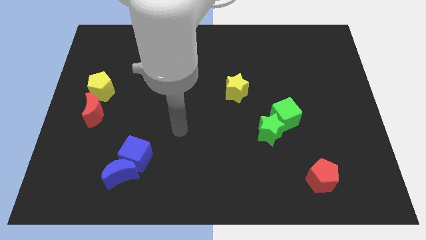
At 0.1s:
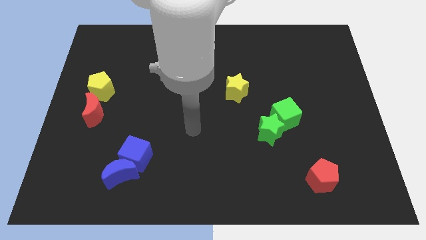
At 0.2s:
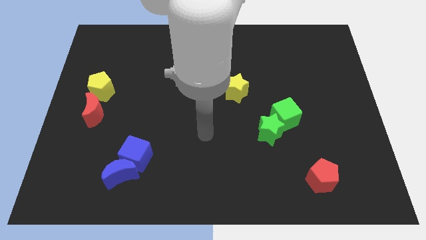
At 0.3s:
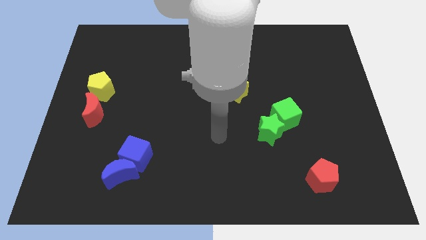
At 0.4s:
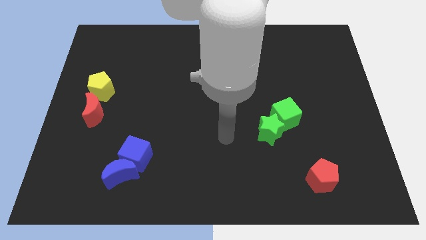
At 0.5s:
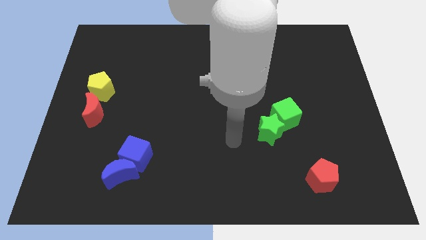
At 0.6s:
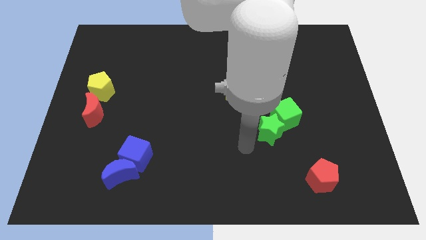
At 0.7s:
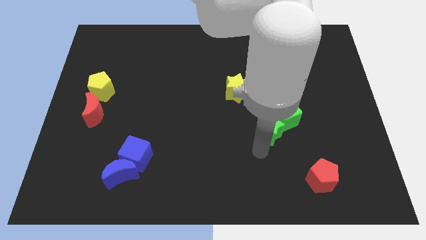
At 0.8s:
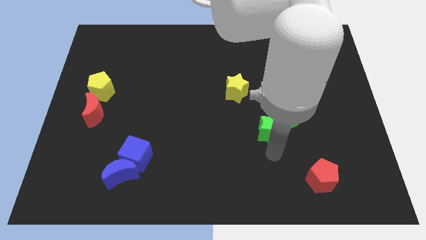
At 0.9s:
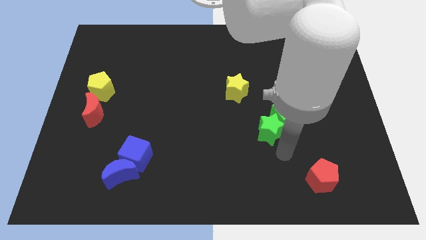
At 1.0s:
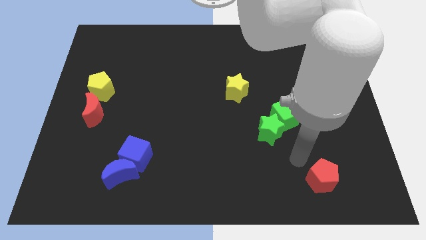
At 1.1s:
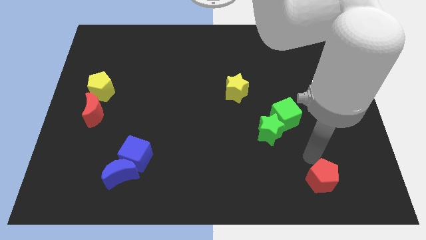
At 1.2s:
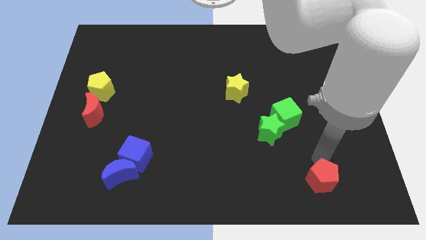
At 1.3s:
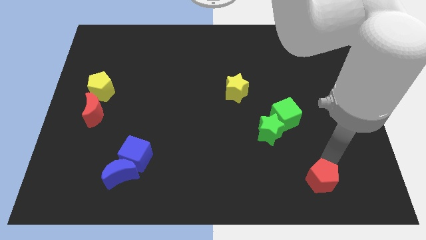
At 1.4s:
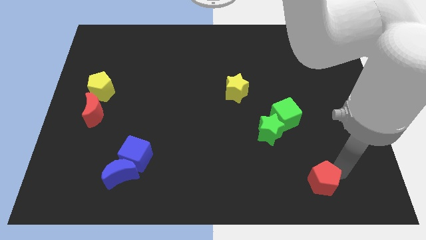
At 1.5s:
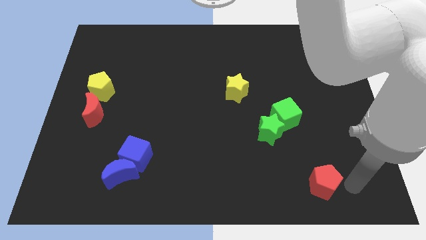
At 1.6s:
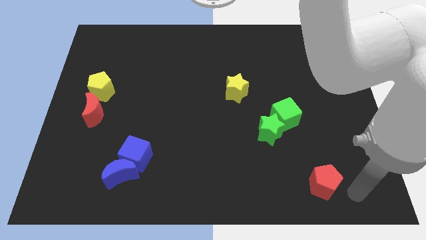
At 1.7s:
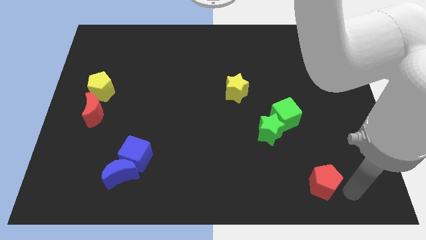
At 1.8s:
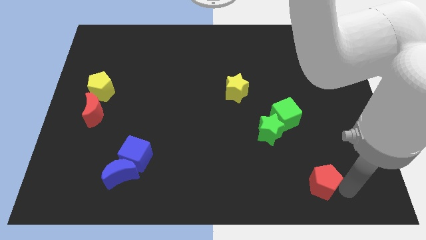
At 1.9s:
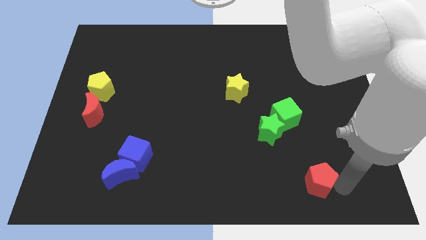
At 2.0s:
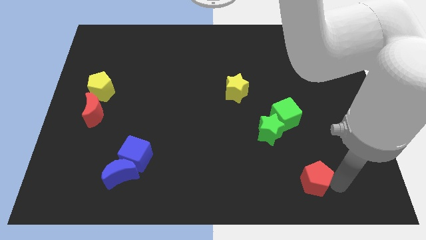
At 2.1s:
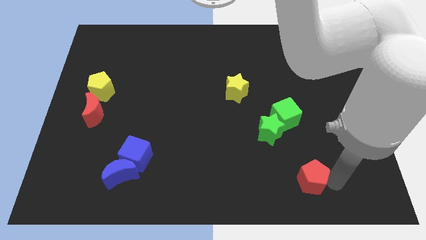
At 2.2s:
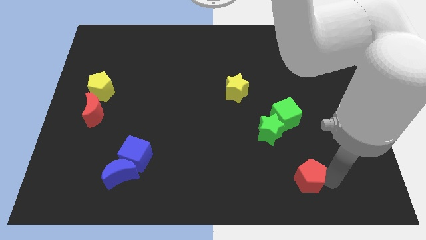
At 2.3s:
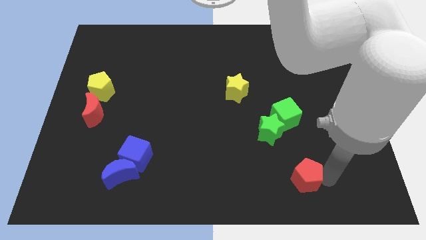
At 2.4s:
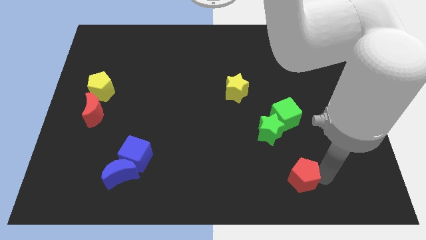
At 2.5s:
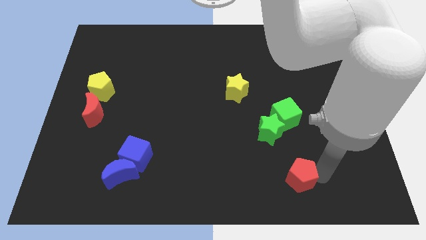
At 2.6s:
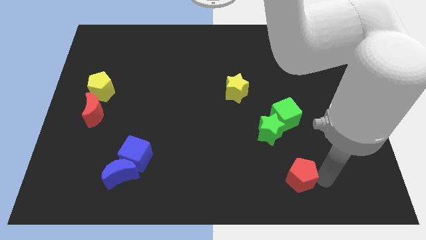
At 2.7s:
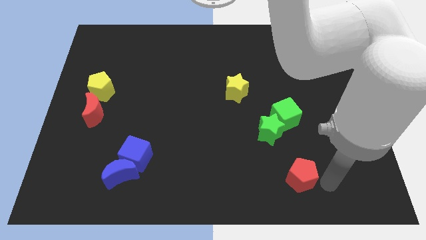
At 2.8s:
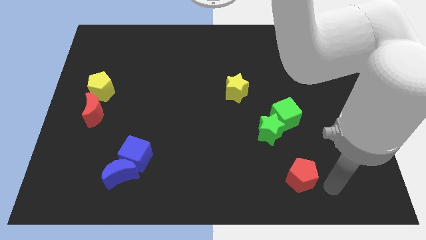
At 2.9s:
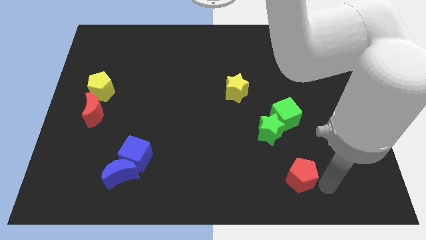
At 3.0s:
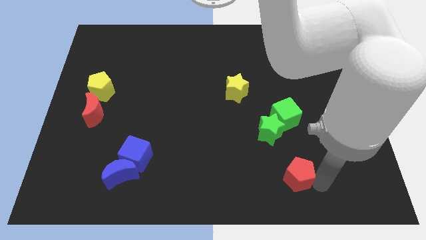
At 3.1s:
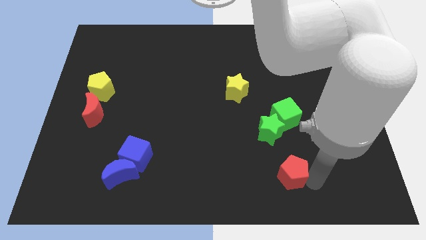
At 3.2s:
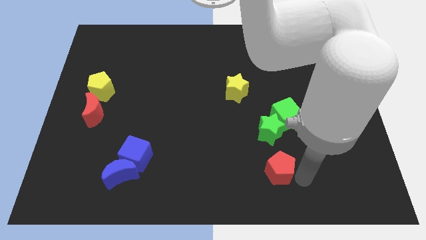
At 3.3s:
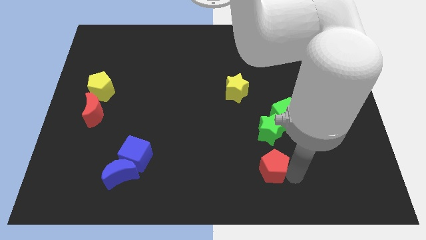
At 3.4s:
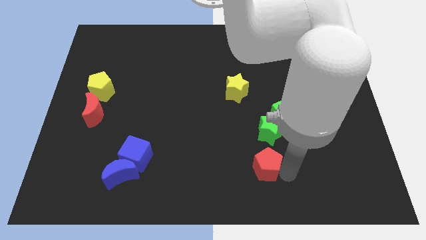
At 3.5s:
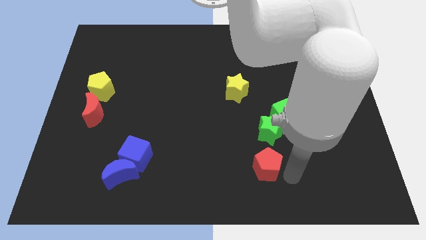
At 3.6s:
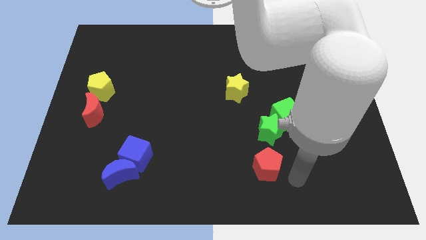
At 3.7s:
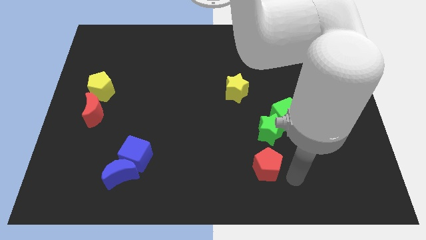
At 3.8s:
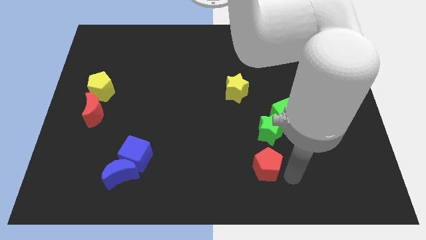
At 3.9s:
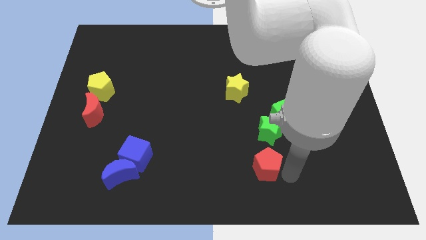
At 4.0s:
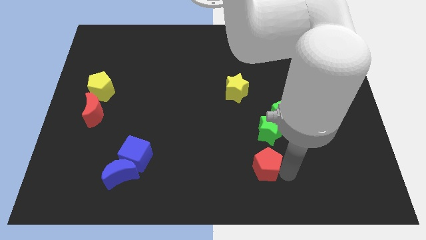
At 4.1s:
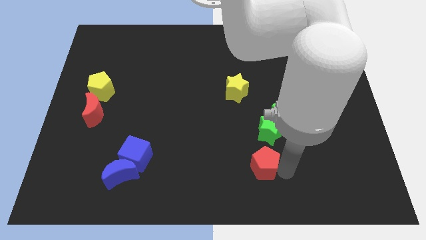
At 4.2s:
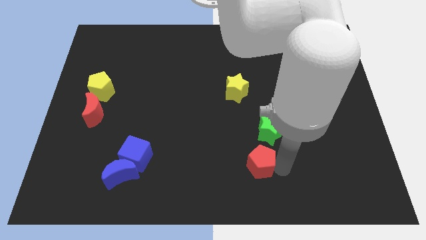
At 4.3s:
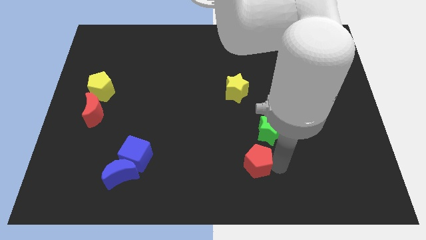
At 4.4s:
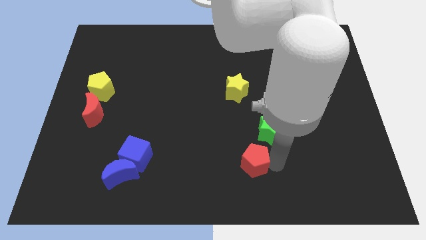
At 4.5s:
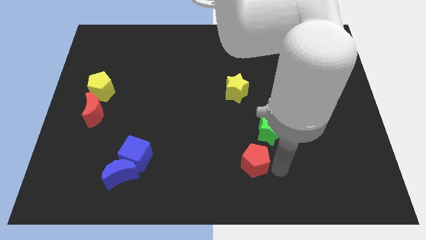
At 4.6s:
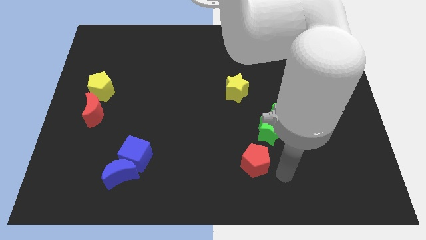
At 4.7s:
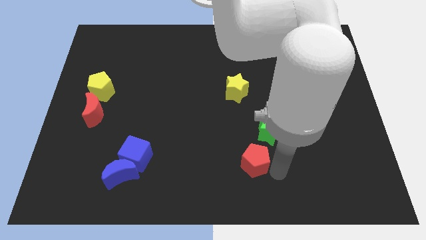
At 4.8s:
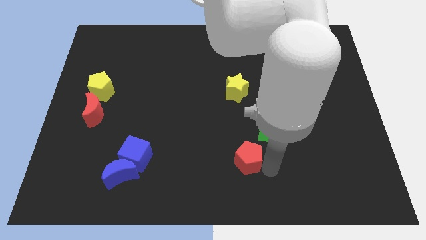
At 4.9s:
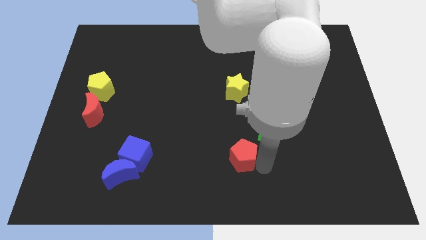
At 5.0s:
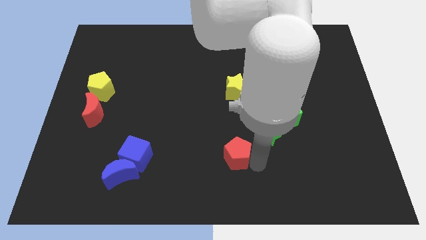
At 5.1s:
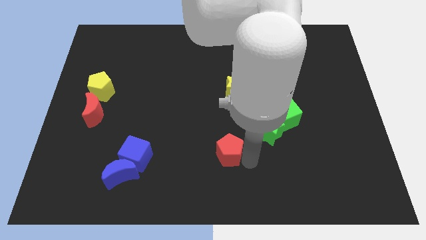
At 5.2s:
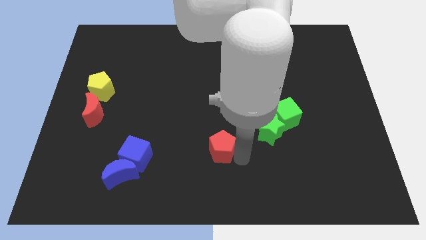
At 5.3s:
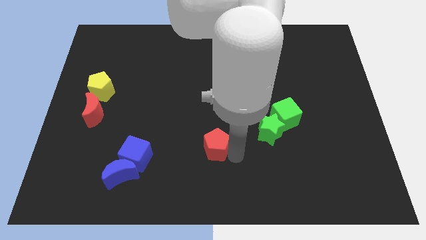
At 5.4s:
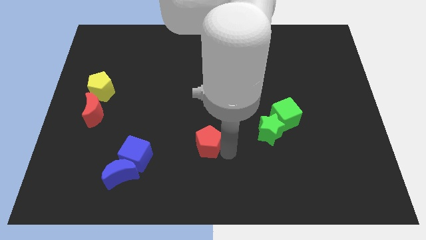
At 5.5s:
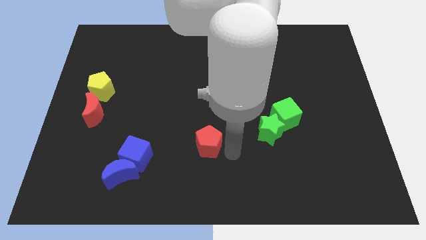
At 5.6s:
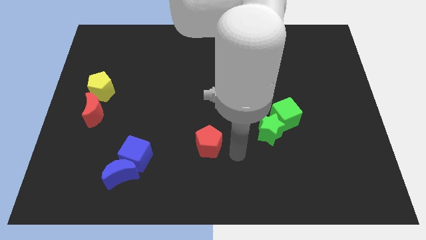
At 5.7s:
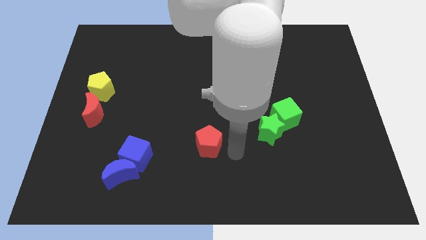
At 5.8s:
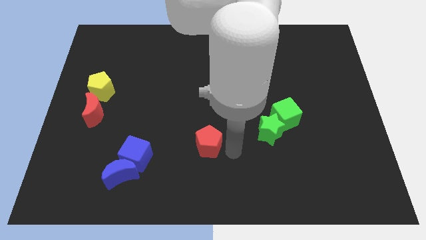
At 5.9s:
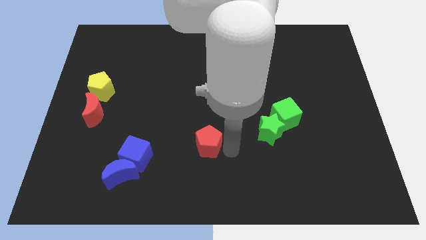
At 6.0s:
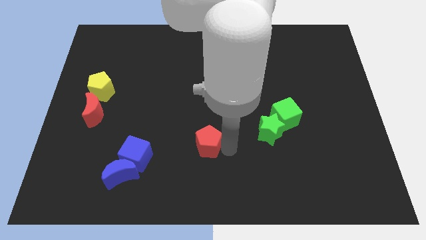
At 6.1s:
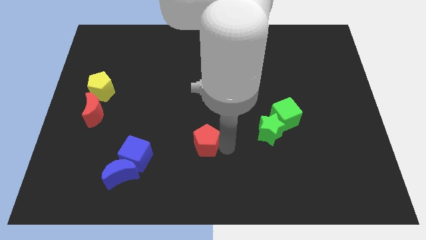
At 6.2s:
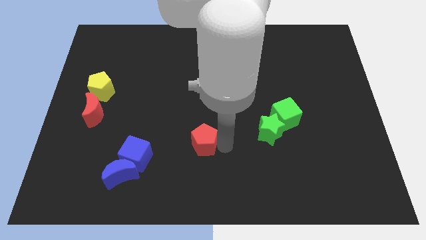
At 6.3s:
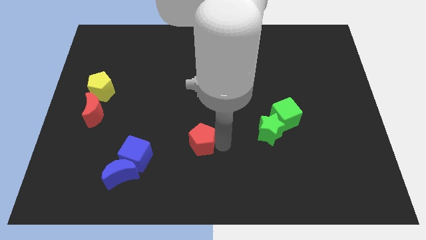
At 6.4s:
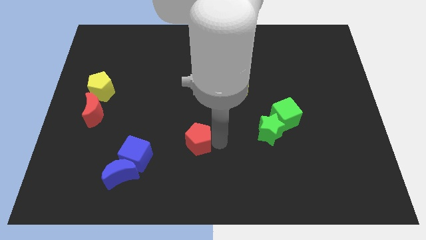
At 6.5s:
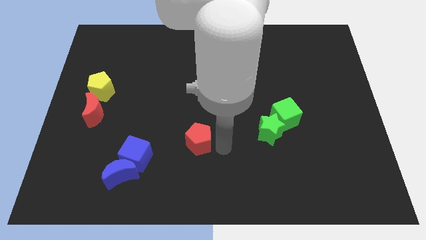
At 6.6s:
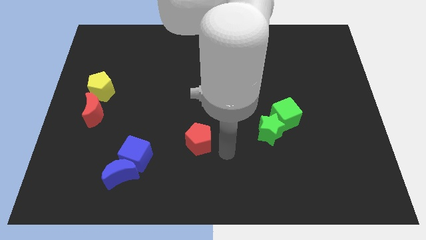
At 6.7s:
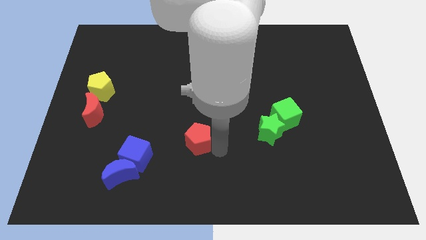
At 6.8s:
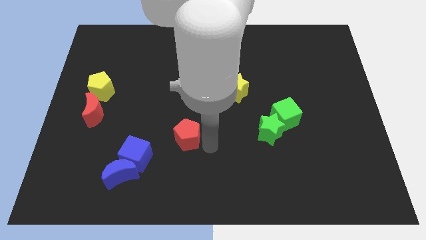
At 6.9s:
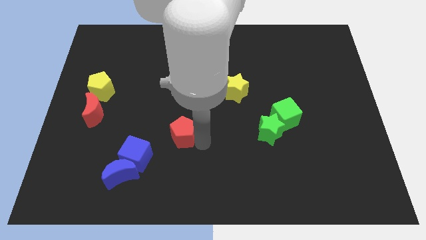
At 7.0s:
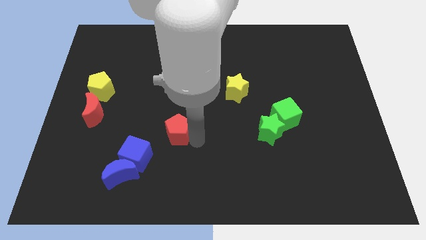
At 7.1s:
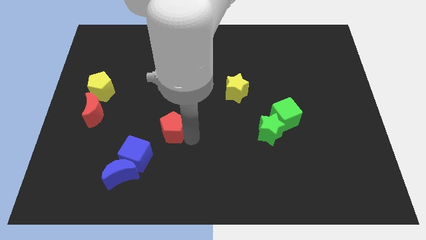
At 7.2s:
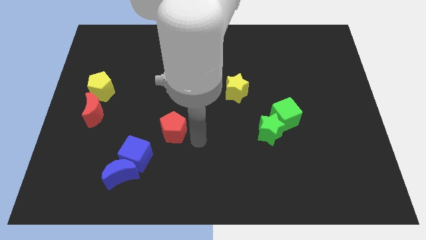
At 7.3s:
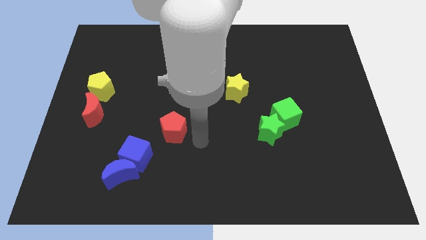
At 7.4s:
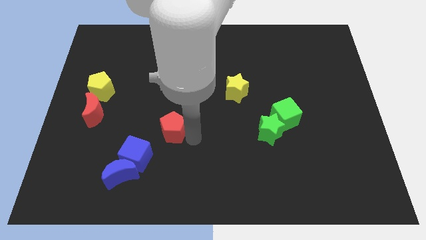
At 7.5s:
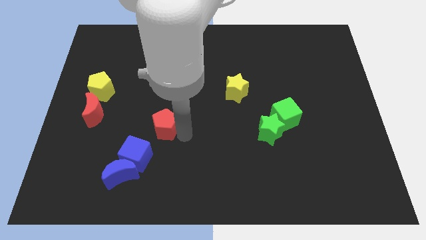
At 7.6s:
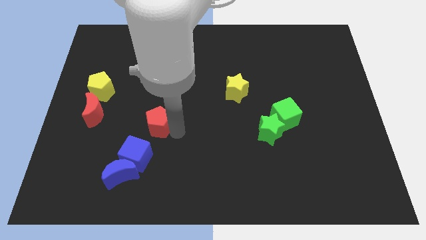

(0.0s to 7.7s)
move the red pentagon above the blue cube
